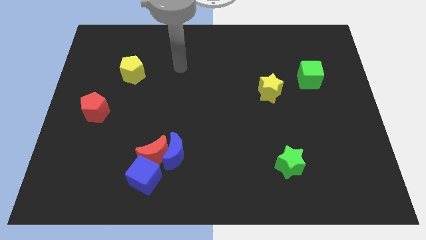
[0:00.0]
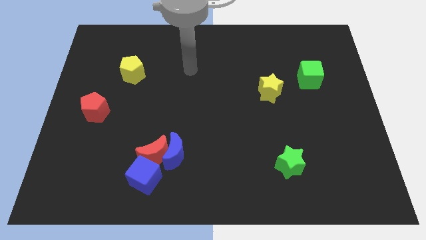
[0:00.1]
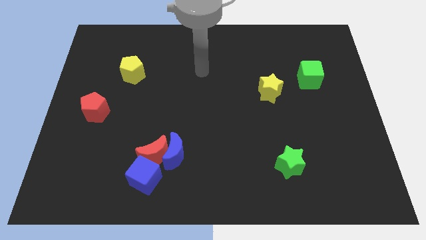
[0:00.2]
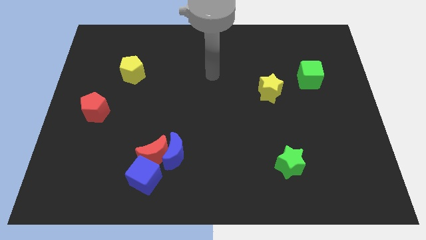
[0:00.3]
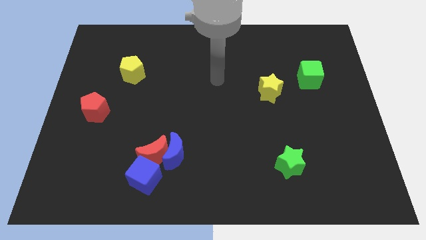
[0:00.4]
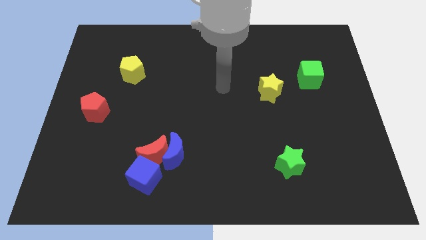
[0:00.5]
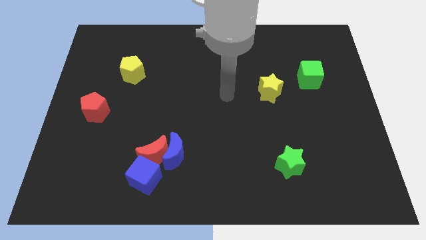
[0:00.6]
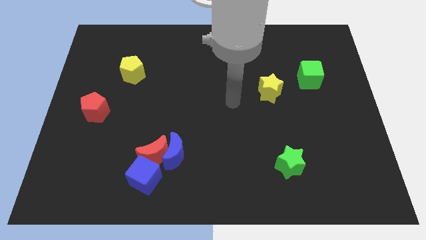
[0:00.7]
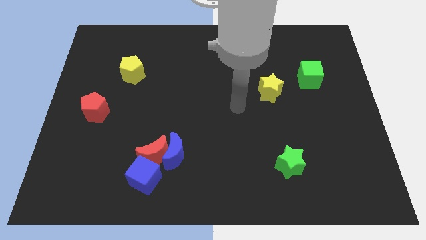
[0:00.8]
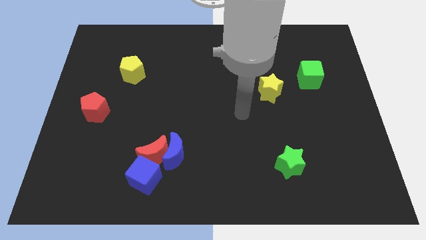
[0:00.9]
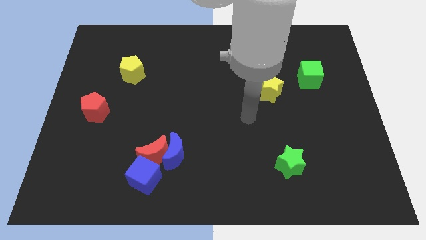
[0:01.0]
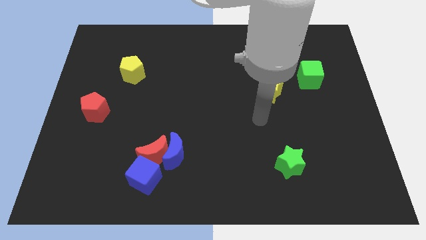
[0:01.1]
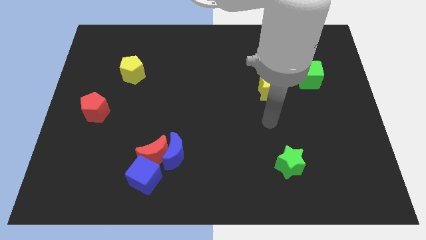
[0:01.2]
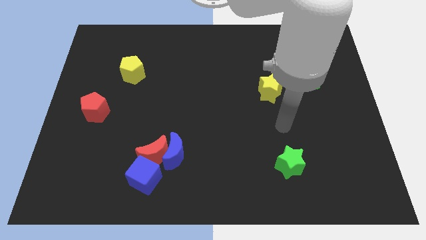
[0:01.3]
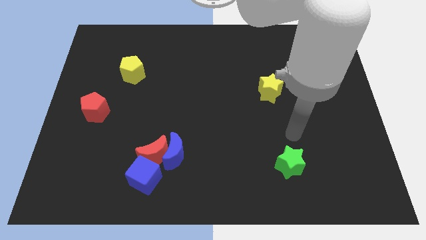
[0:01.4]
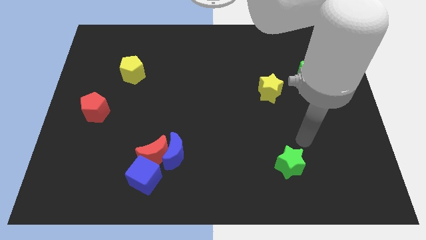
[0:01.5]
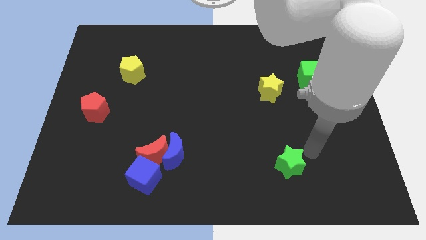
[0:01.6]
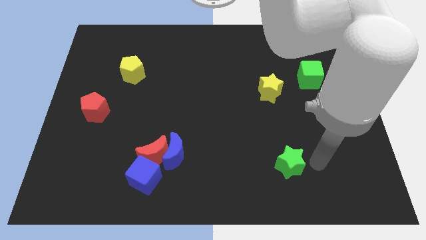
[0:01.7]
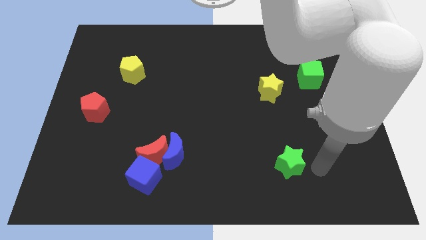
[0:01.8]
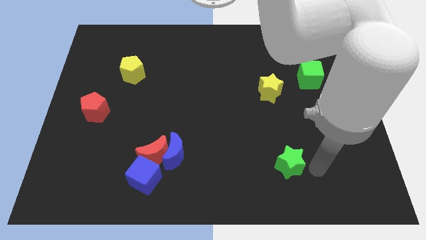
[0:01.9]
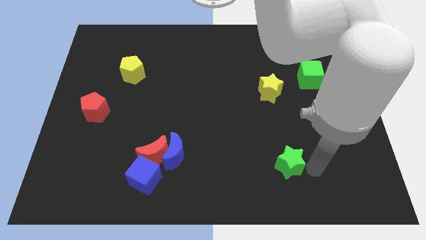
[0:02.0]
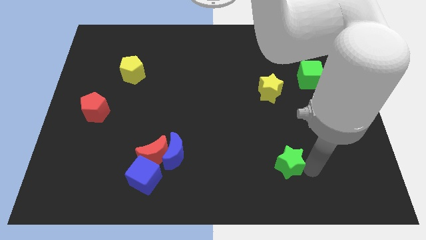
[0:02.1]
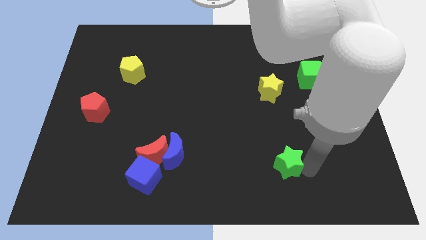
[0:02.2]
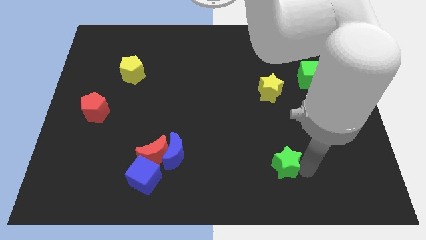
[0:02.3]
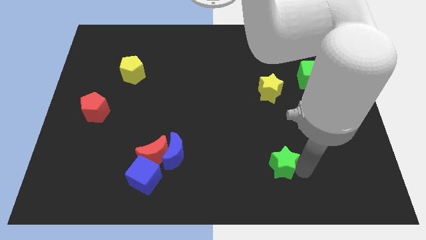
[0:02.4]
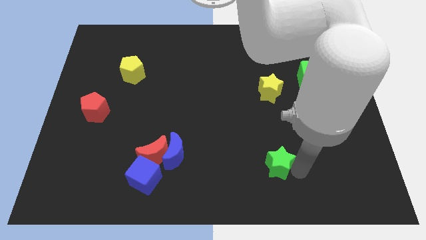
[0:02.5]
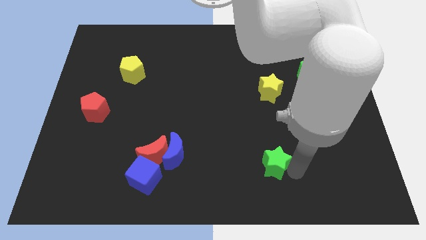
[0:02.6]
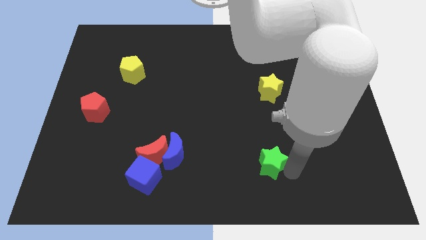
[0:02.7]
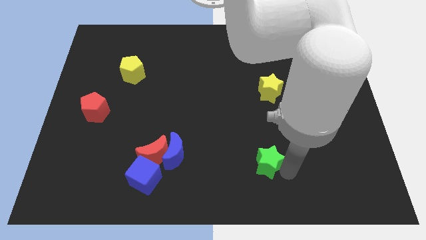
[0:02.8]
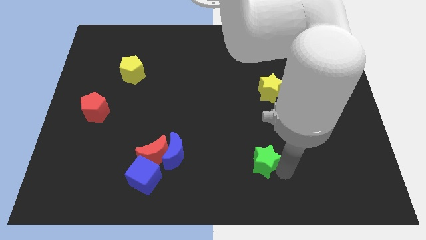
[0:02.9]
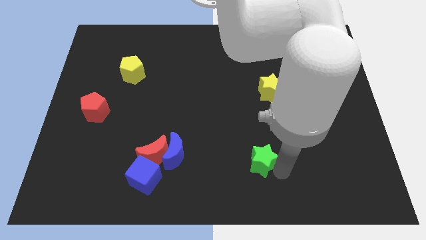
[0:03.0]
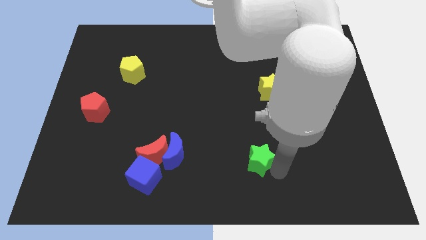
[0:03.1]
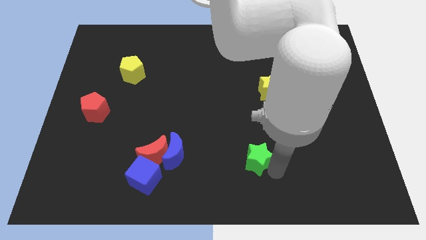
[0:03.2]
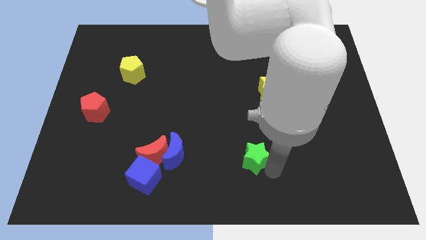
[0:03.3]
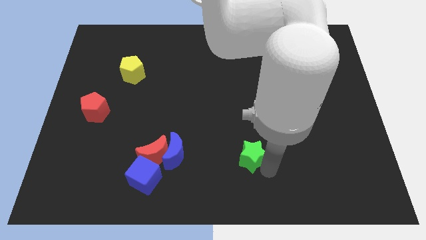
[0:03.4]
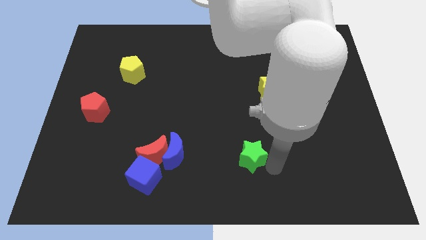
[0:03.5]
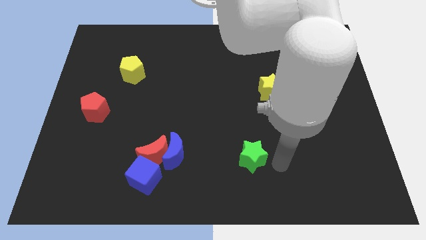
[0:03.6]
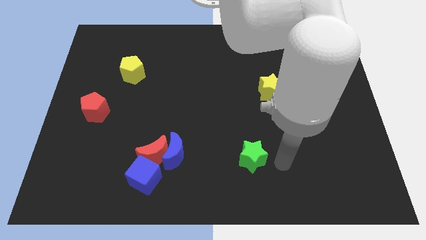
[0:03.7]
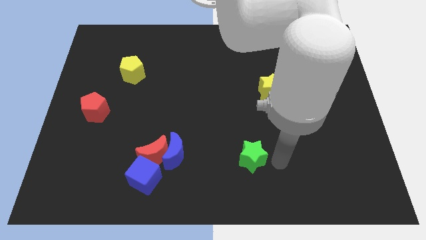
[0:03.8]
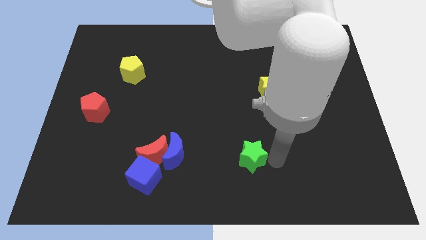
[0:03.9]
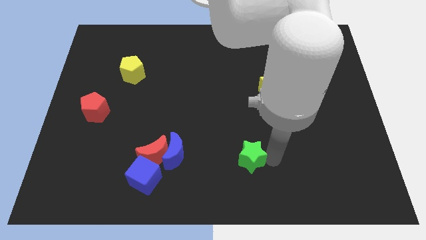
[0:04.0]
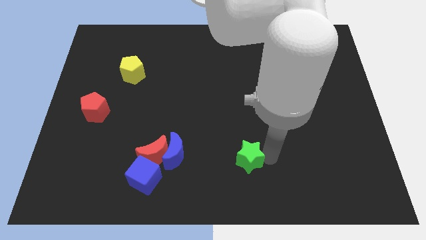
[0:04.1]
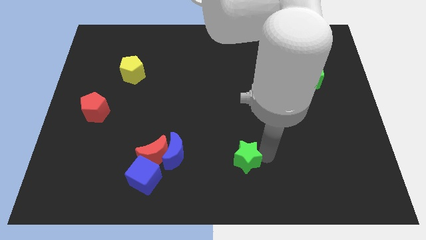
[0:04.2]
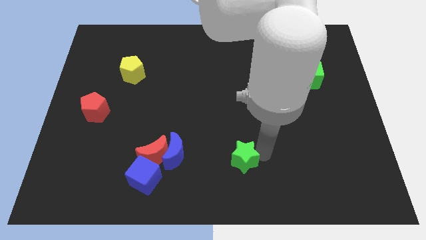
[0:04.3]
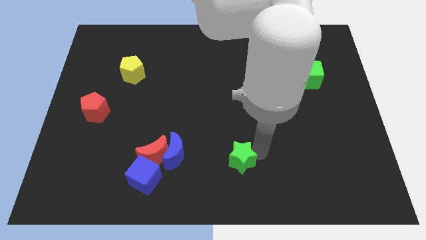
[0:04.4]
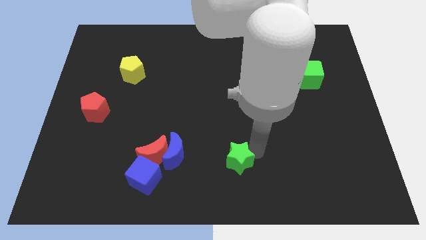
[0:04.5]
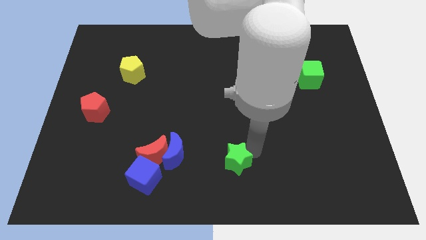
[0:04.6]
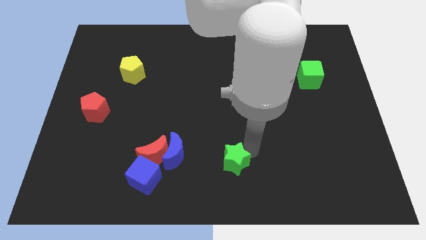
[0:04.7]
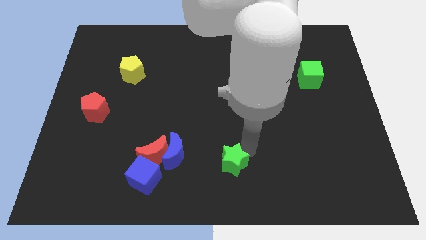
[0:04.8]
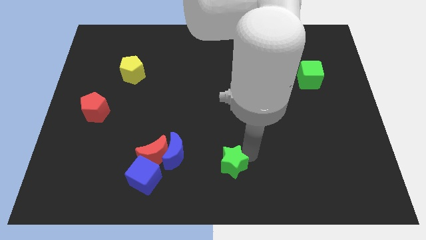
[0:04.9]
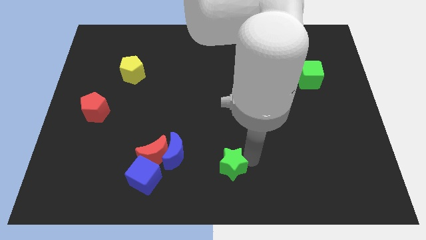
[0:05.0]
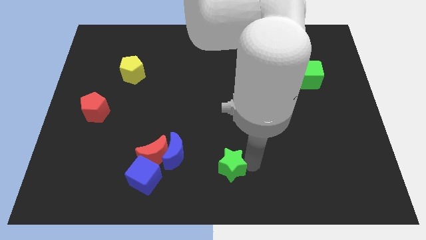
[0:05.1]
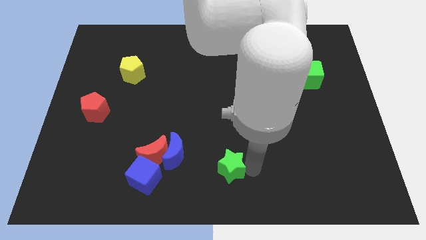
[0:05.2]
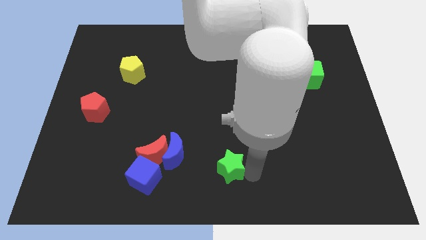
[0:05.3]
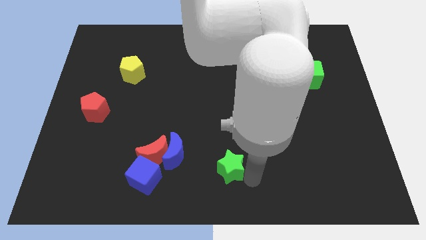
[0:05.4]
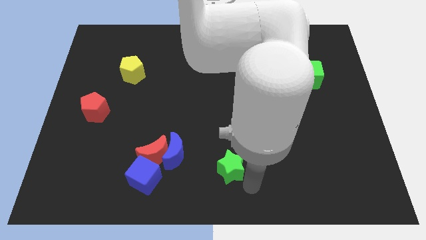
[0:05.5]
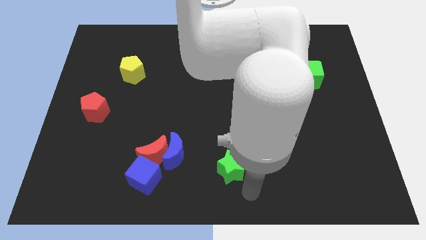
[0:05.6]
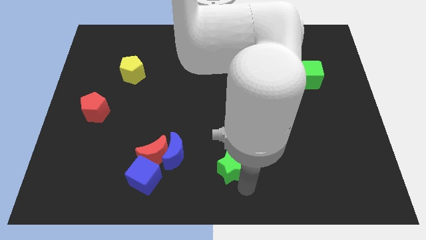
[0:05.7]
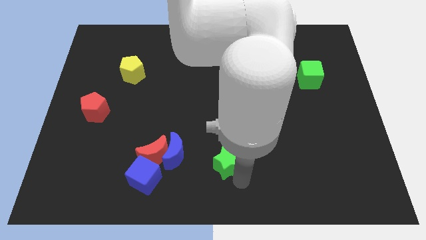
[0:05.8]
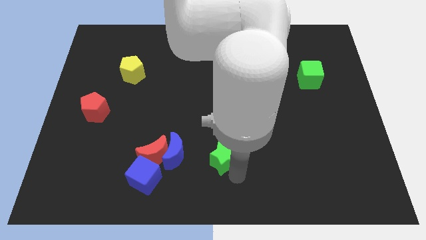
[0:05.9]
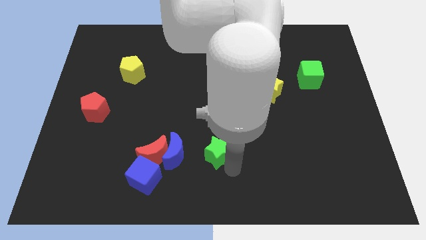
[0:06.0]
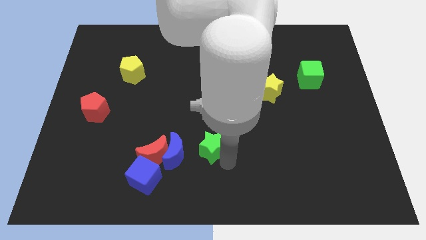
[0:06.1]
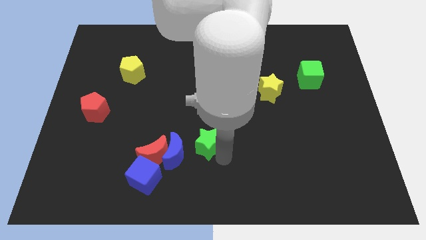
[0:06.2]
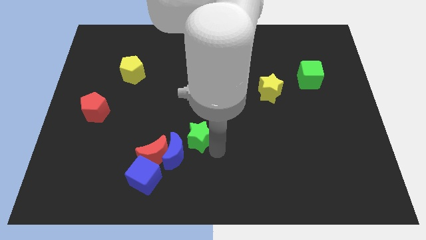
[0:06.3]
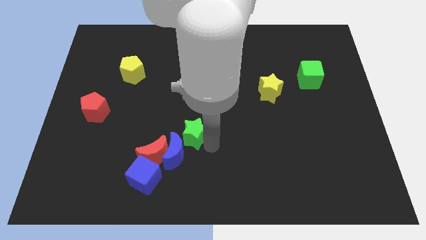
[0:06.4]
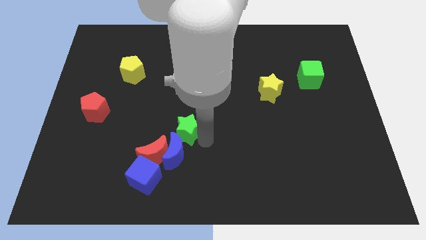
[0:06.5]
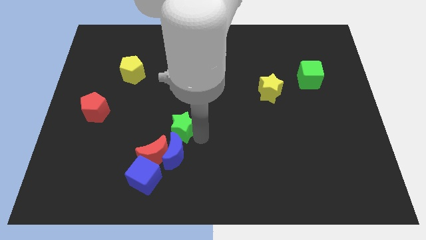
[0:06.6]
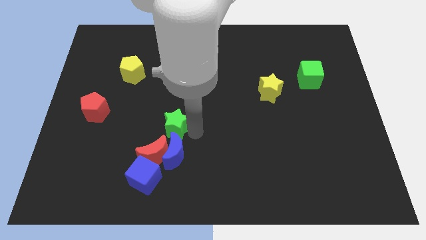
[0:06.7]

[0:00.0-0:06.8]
slide the green star diagonally up and to the left of the blue moon
